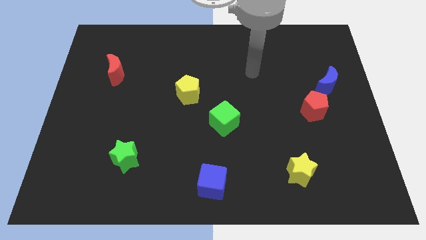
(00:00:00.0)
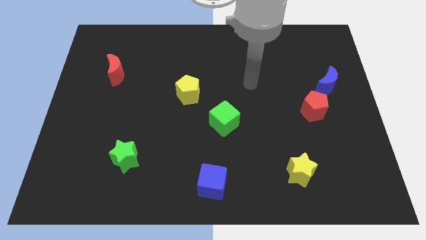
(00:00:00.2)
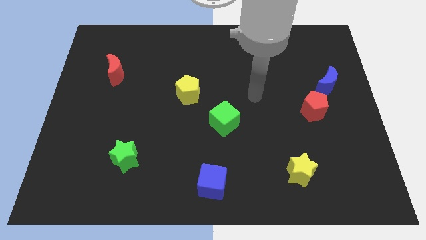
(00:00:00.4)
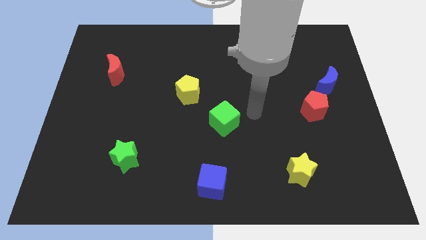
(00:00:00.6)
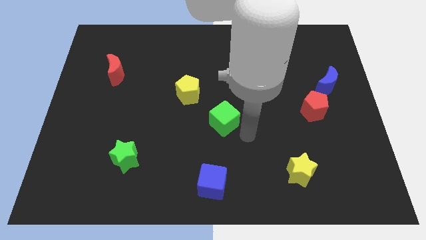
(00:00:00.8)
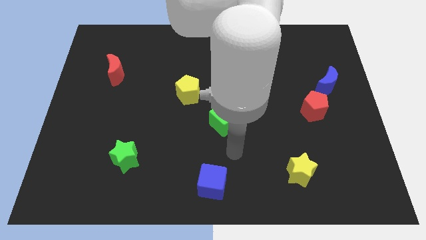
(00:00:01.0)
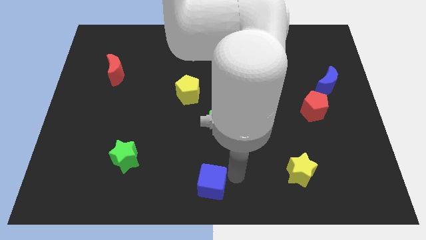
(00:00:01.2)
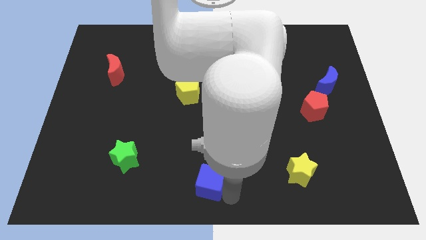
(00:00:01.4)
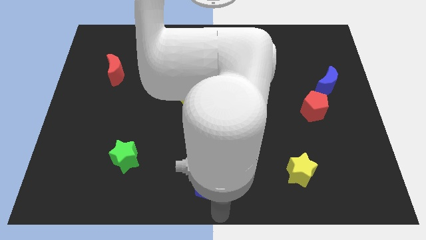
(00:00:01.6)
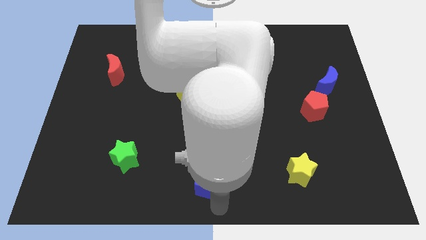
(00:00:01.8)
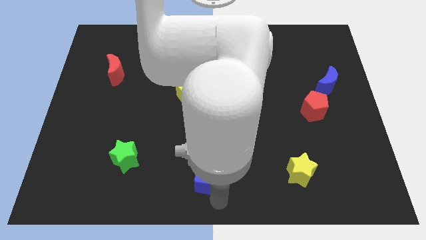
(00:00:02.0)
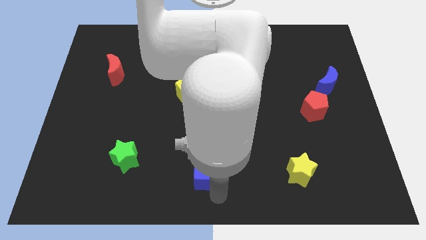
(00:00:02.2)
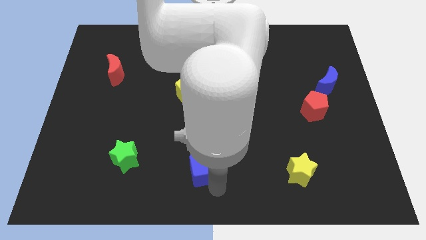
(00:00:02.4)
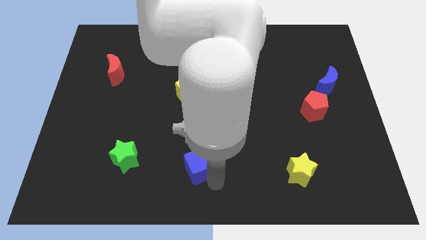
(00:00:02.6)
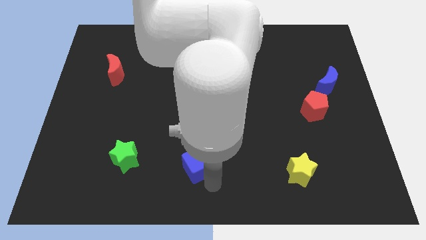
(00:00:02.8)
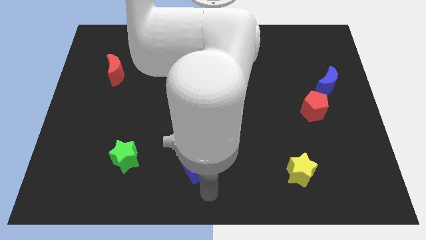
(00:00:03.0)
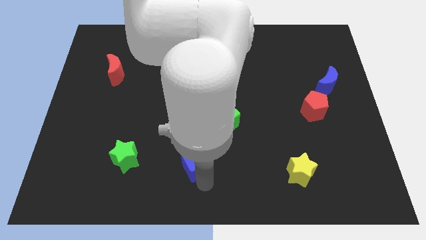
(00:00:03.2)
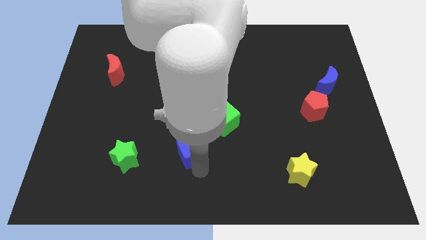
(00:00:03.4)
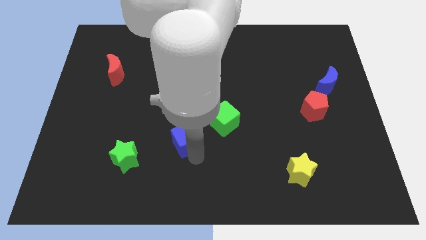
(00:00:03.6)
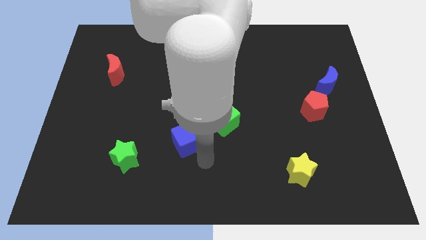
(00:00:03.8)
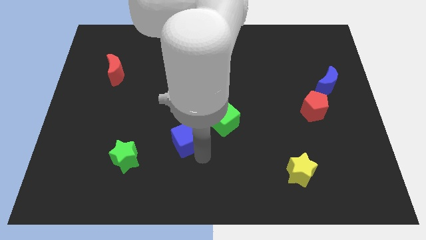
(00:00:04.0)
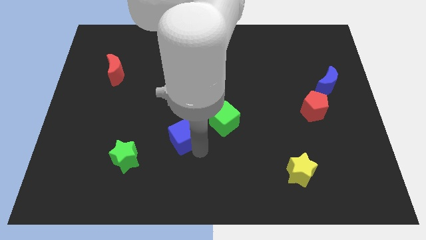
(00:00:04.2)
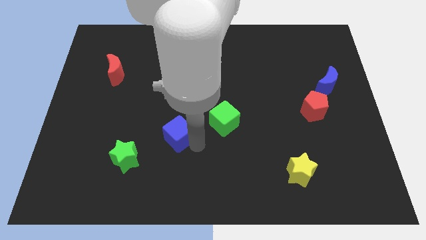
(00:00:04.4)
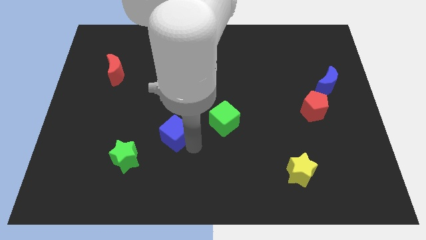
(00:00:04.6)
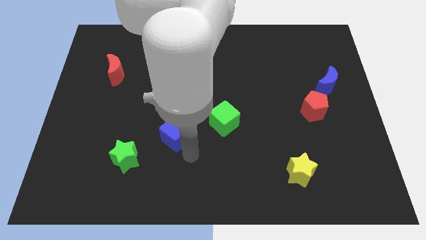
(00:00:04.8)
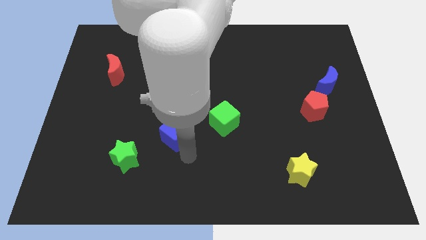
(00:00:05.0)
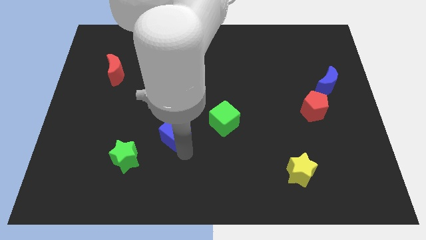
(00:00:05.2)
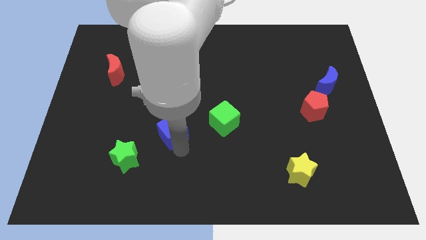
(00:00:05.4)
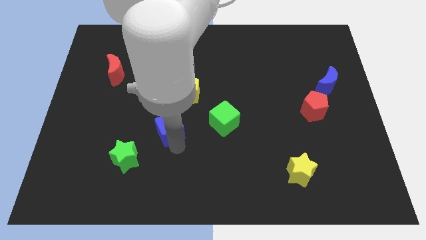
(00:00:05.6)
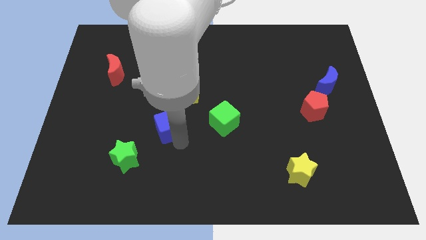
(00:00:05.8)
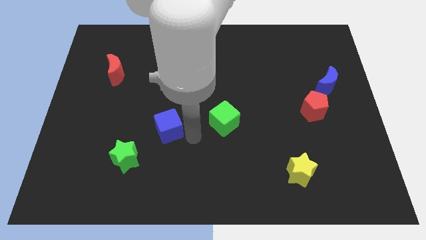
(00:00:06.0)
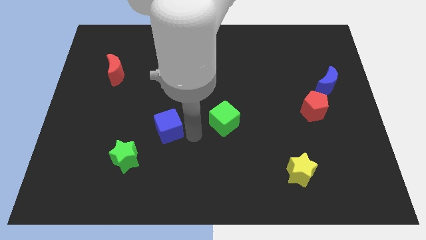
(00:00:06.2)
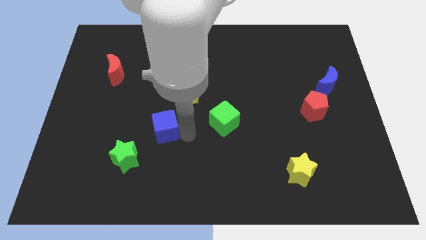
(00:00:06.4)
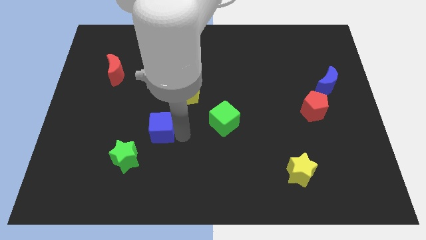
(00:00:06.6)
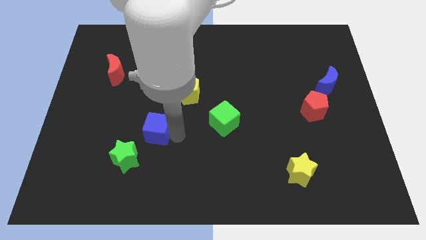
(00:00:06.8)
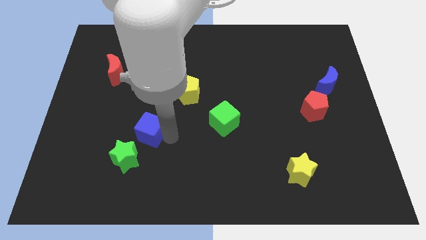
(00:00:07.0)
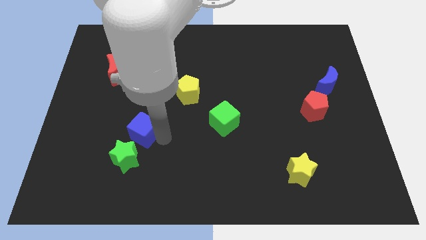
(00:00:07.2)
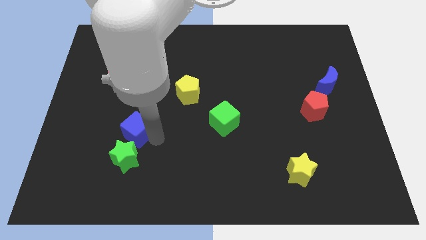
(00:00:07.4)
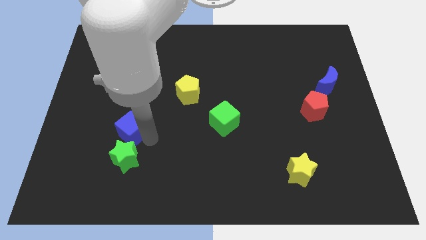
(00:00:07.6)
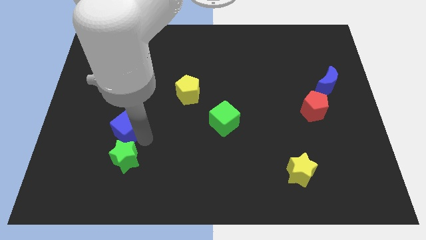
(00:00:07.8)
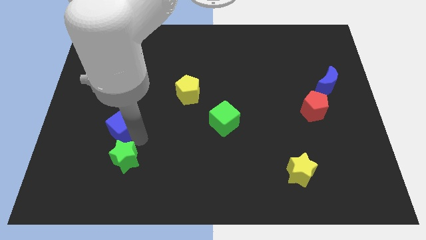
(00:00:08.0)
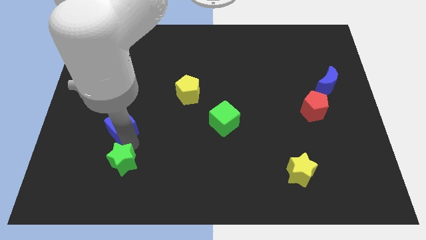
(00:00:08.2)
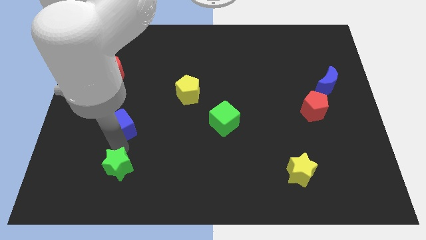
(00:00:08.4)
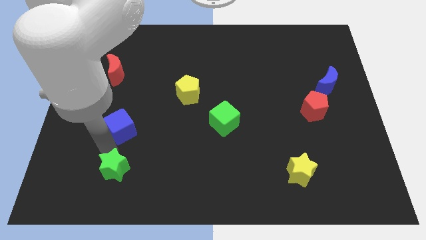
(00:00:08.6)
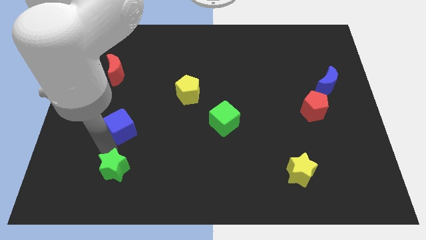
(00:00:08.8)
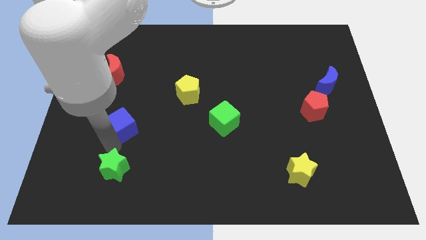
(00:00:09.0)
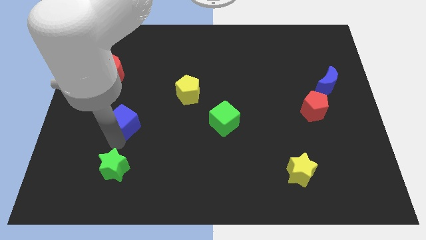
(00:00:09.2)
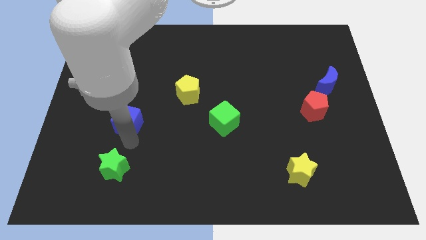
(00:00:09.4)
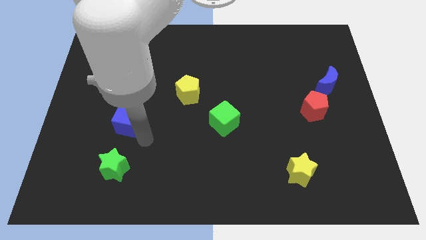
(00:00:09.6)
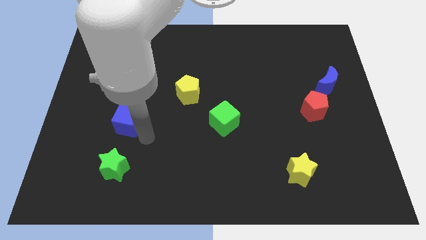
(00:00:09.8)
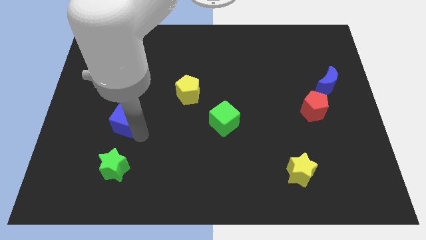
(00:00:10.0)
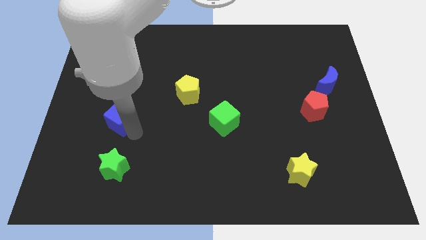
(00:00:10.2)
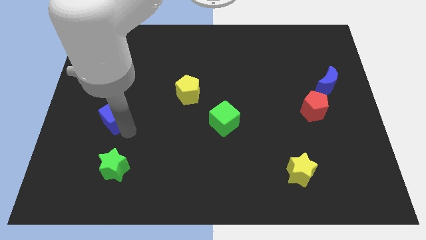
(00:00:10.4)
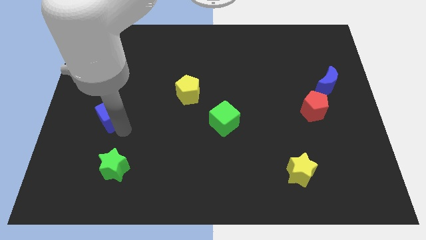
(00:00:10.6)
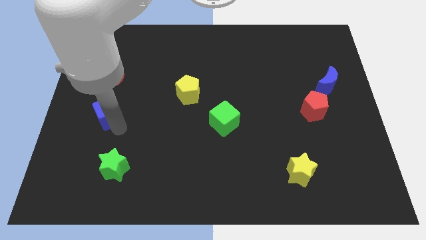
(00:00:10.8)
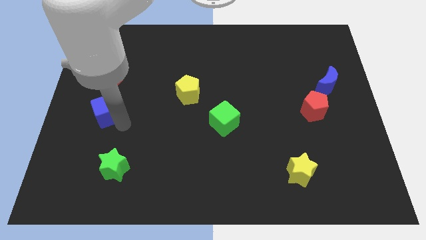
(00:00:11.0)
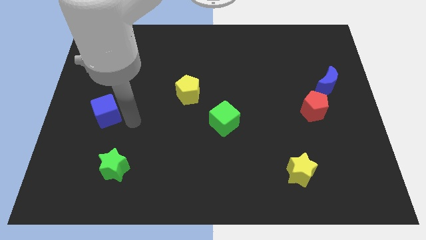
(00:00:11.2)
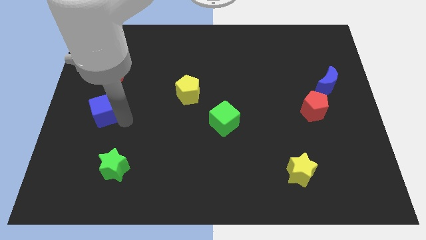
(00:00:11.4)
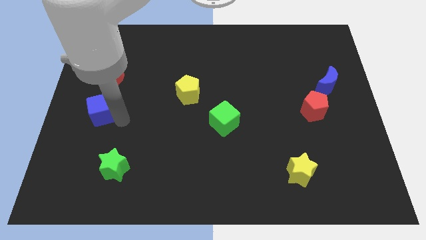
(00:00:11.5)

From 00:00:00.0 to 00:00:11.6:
slide the blue cube to the center left
